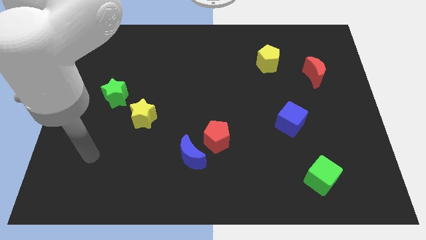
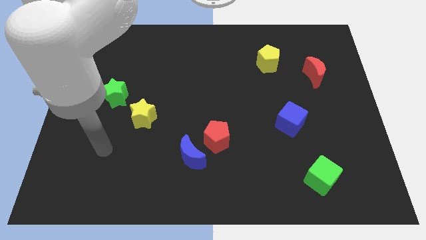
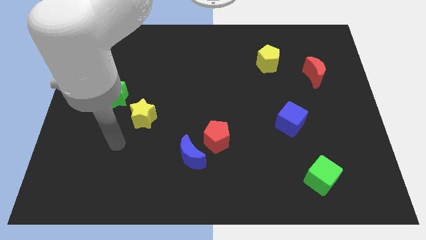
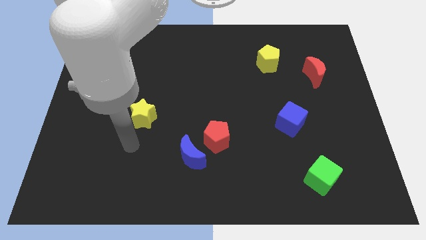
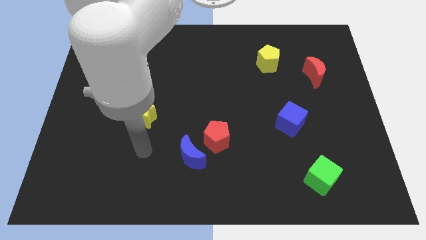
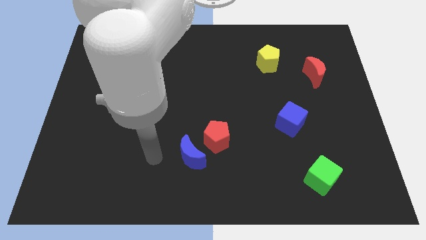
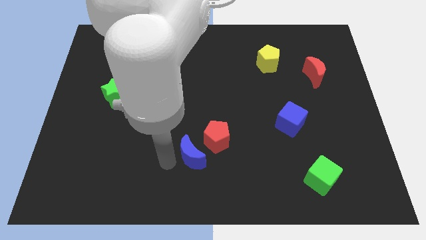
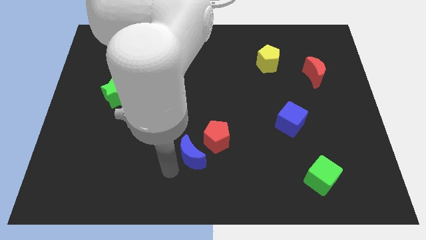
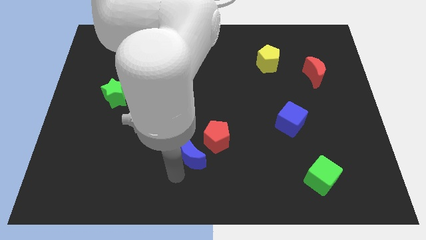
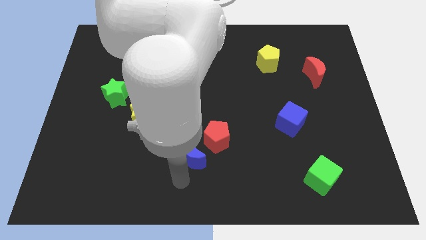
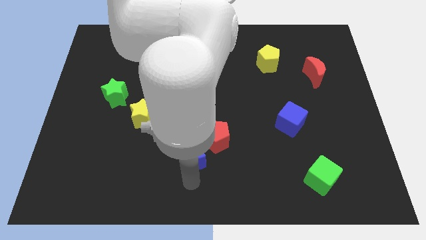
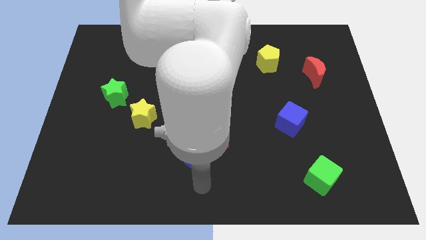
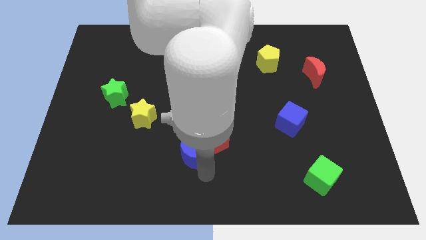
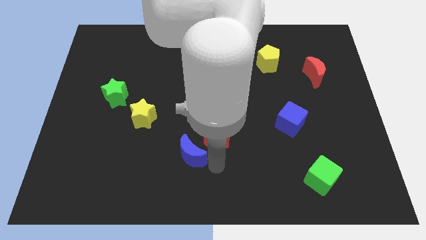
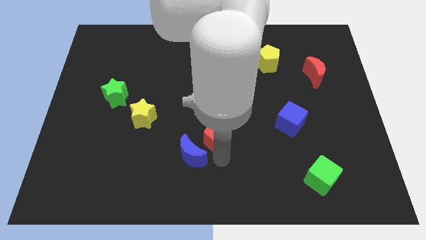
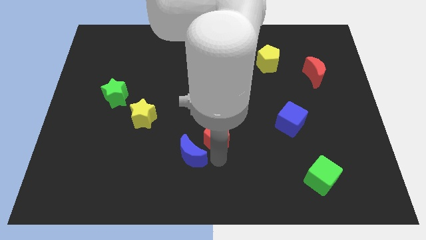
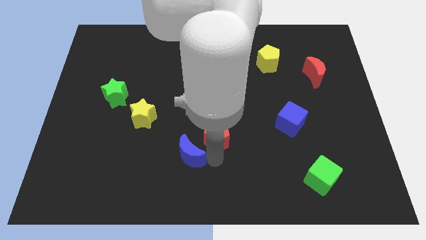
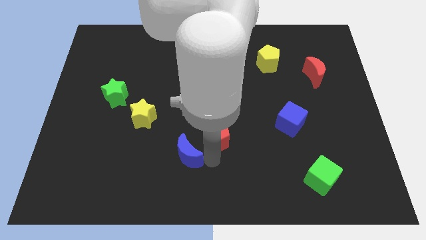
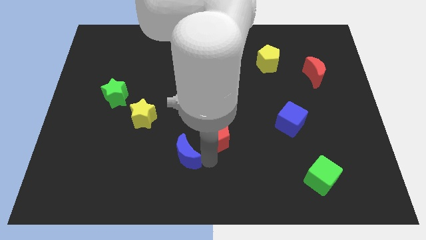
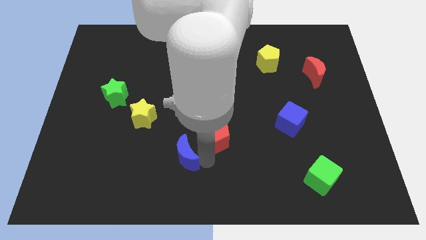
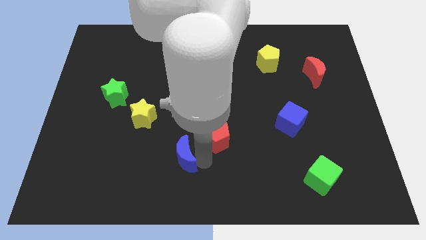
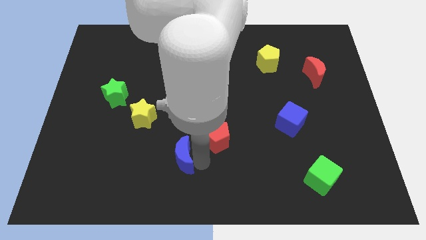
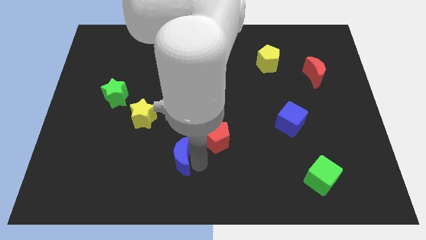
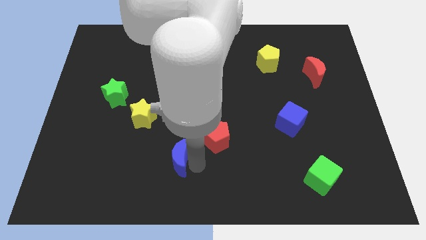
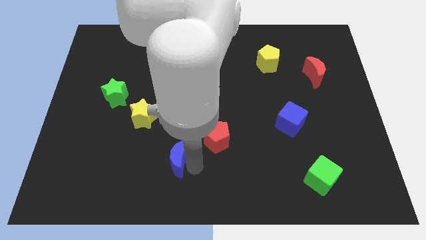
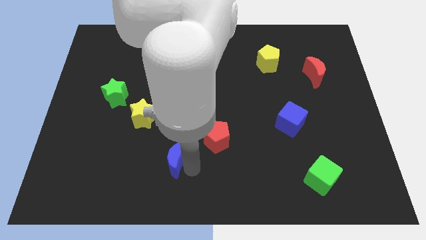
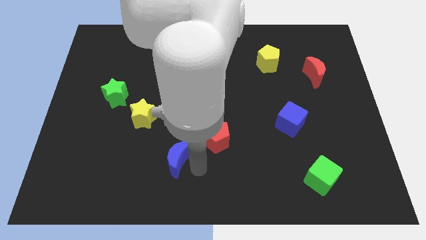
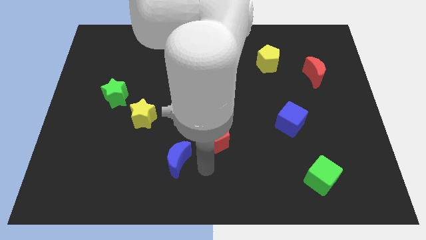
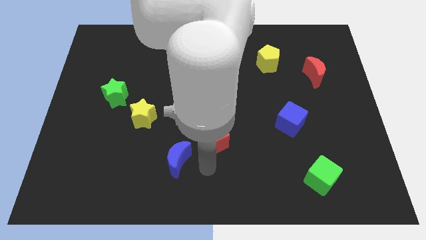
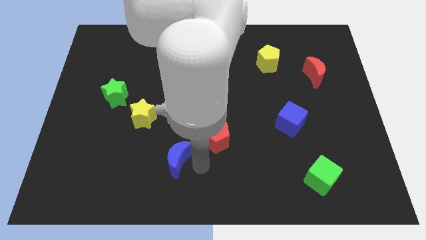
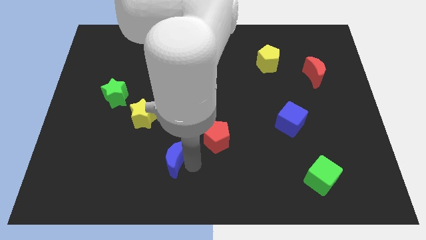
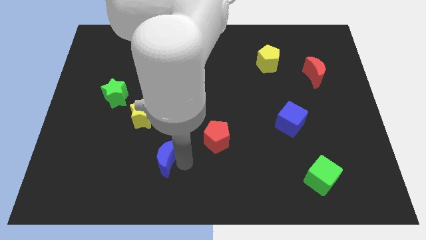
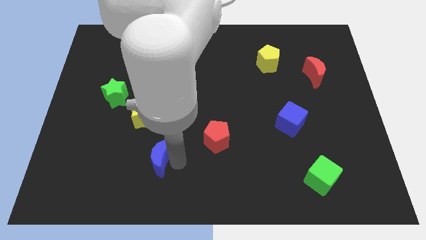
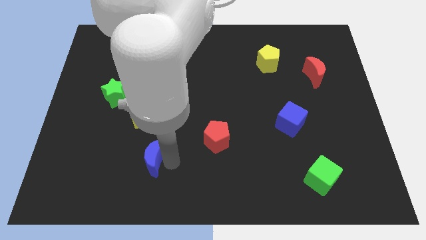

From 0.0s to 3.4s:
move the blue moon a little to the left

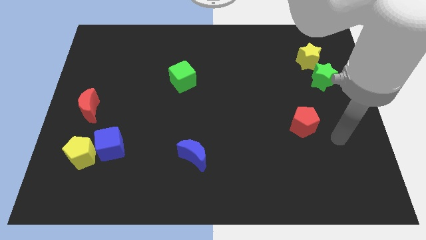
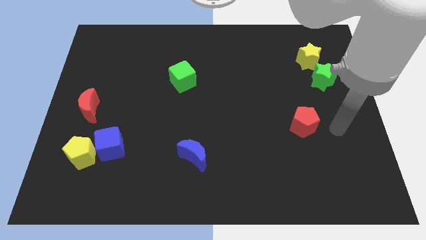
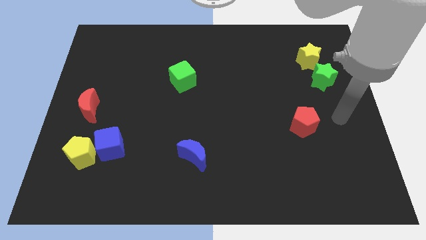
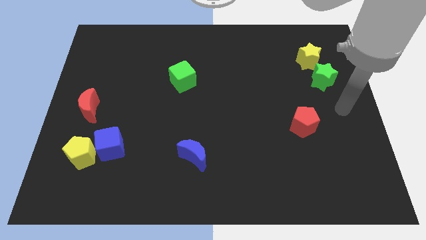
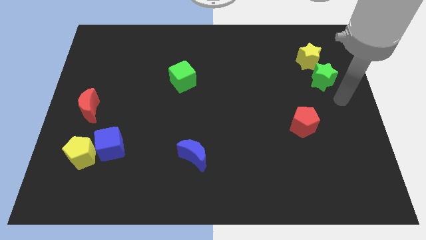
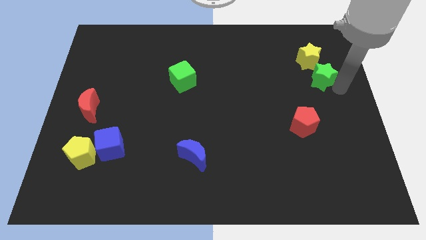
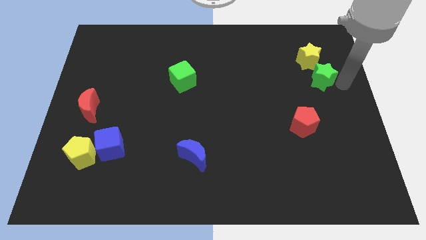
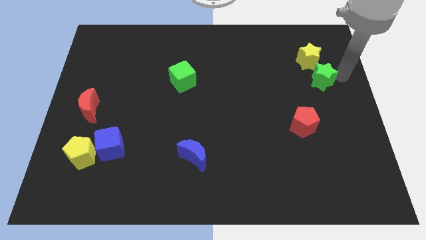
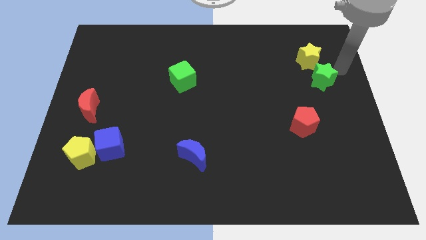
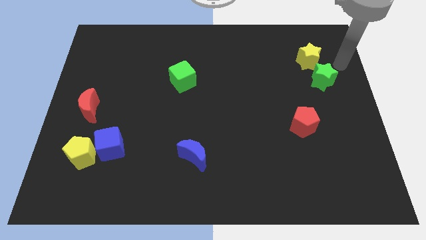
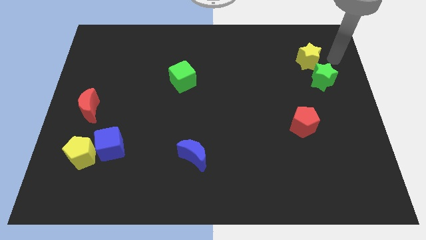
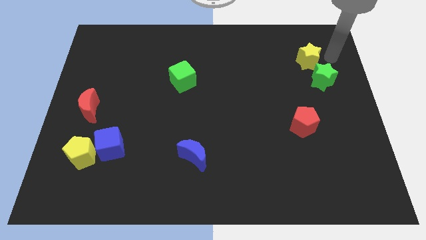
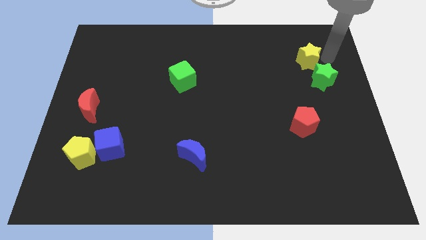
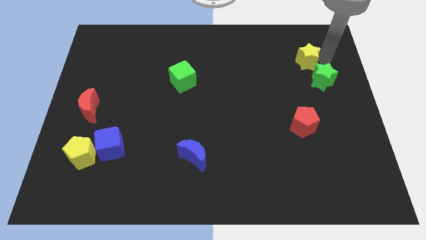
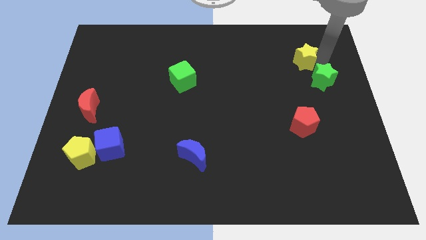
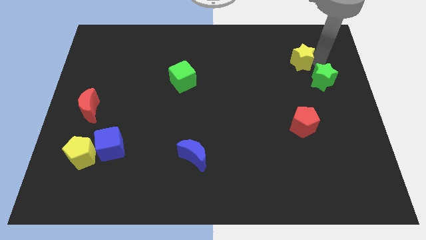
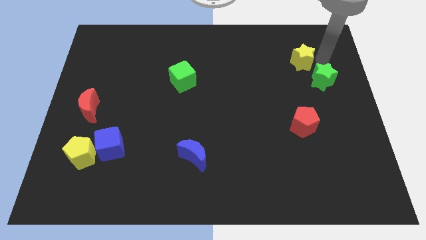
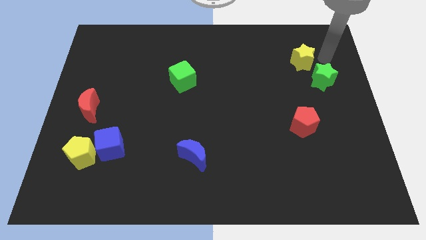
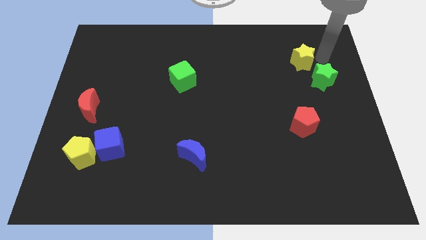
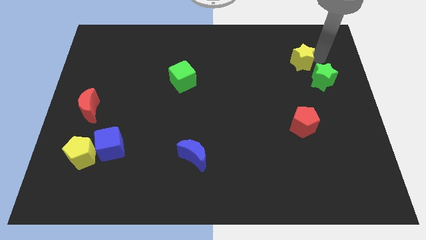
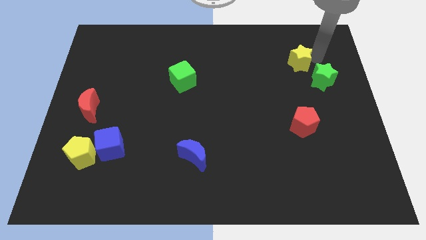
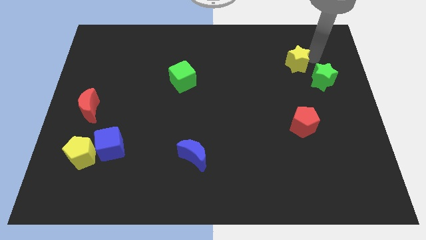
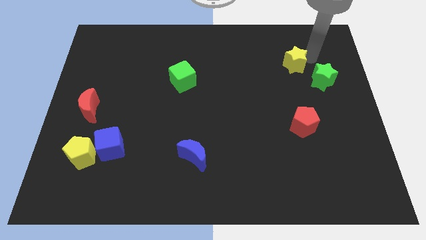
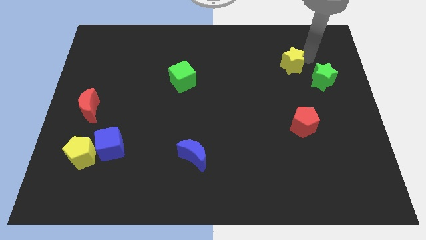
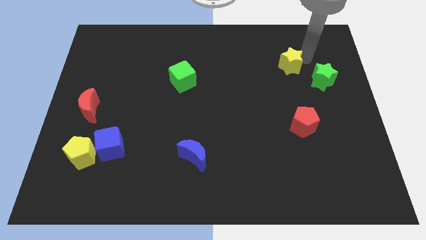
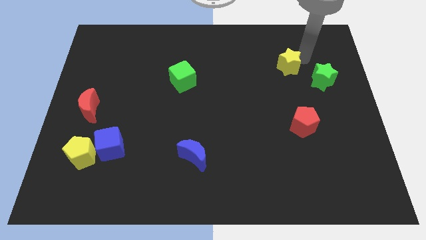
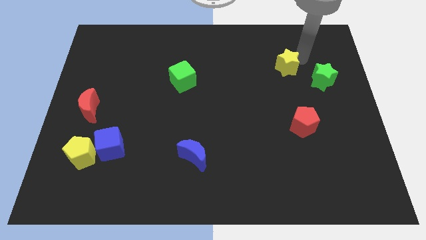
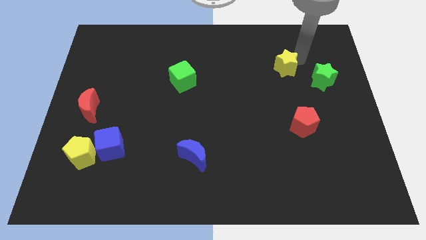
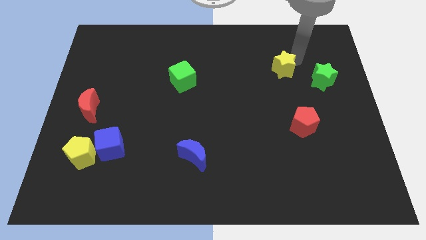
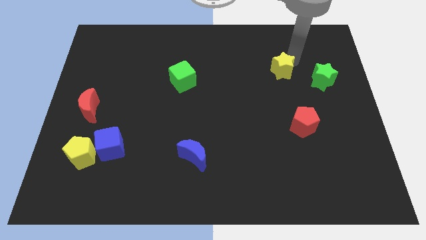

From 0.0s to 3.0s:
slide the yellow star slightly to the left

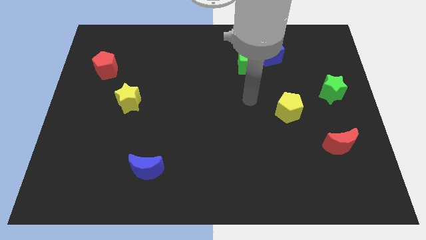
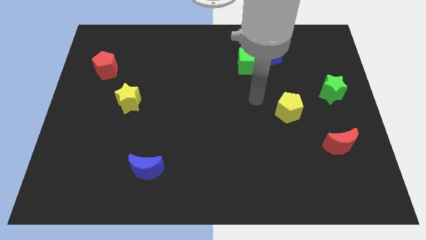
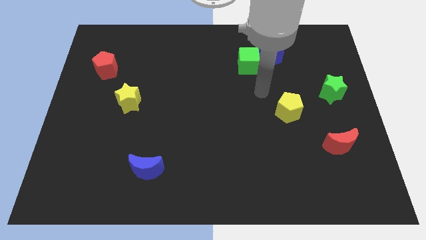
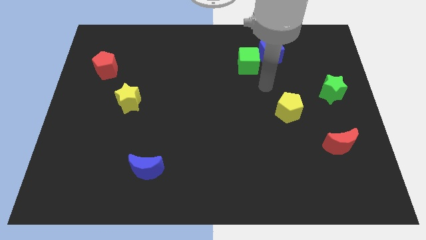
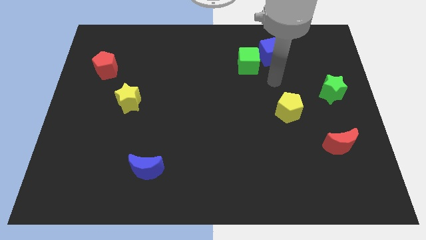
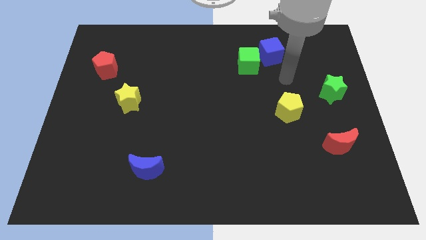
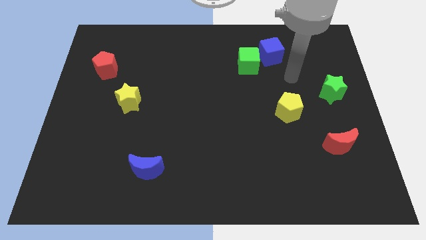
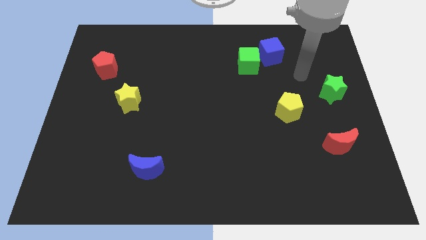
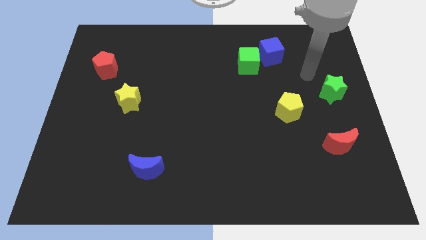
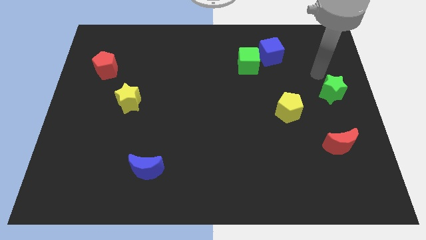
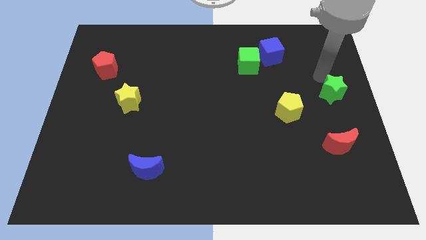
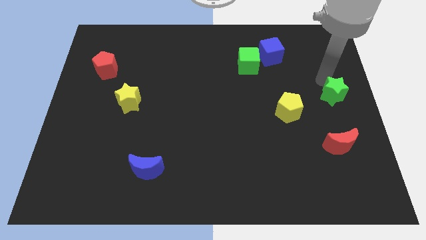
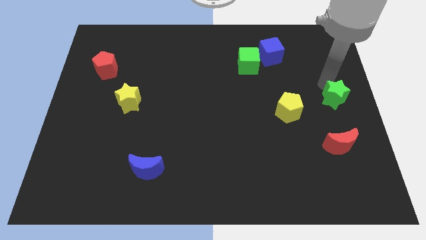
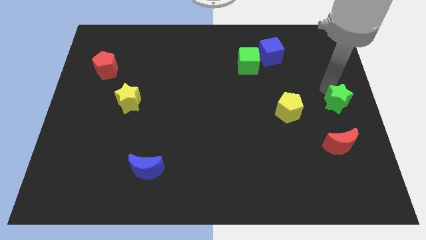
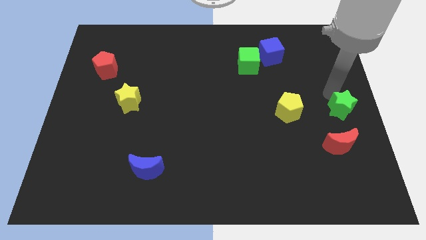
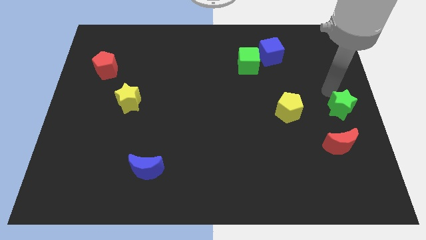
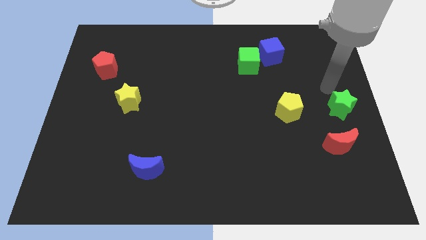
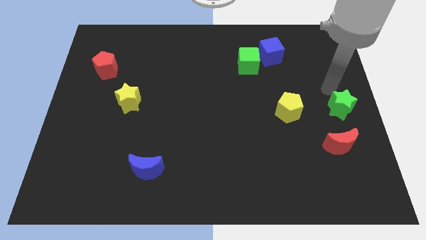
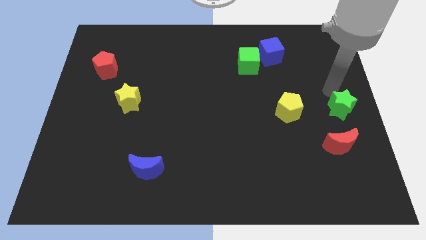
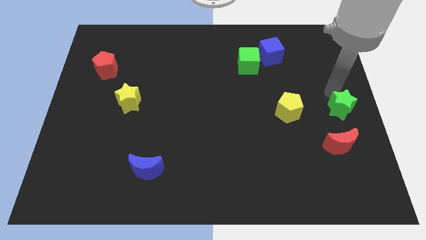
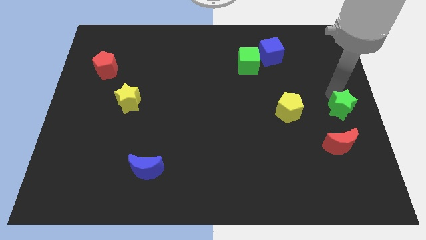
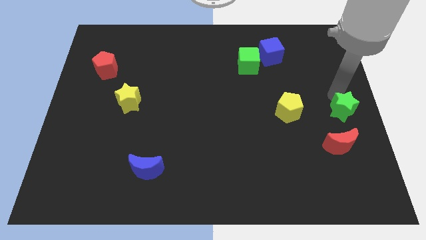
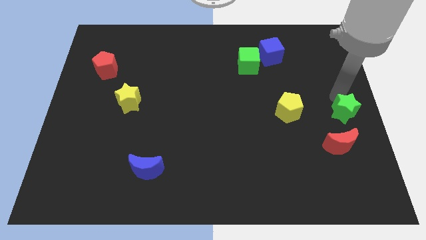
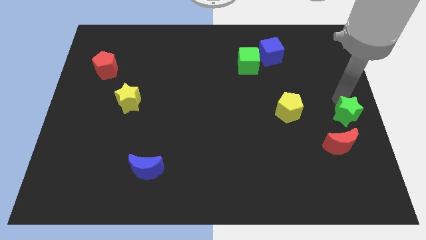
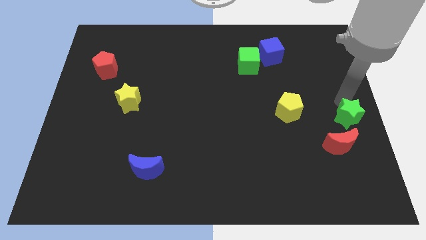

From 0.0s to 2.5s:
move the green star a little bit down
